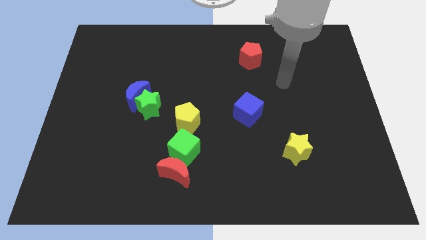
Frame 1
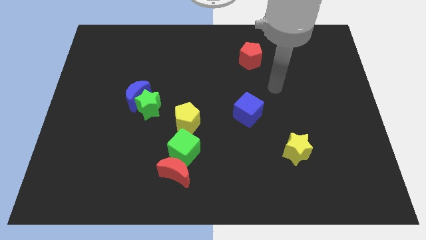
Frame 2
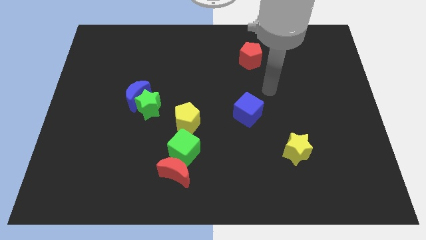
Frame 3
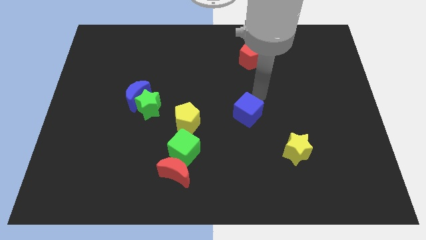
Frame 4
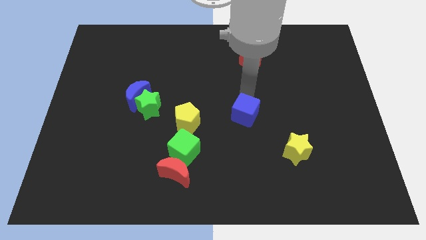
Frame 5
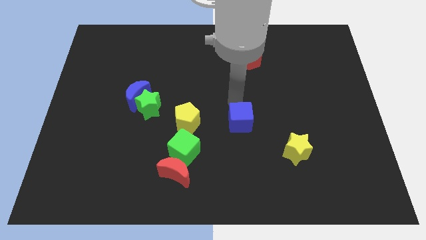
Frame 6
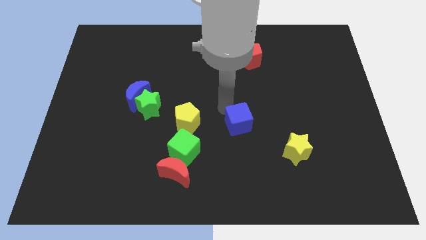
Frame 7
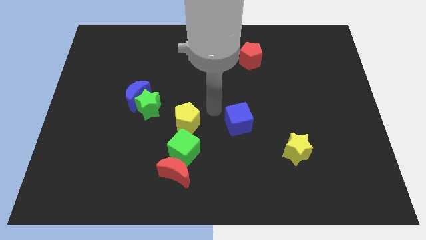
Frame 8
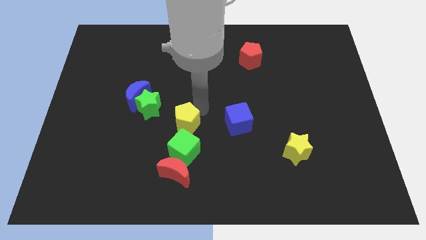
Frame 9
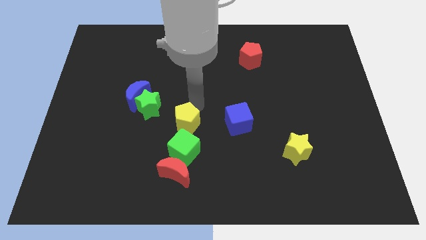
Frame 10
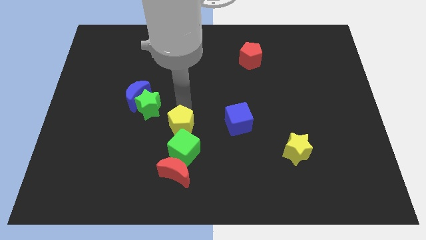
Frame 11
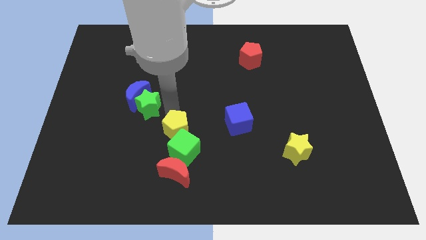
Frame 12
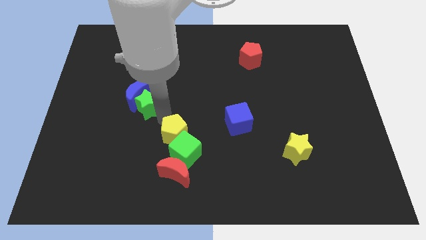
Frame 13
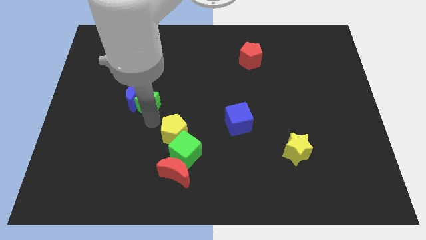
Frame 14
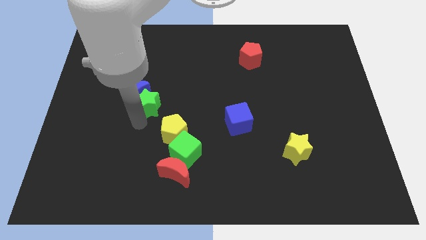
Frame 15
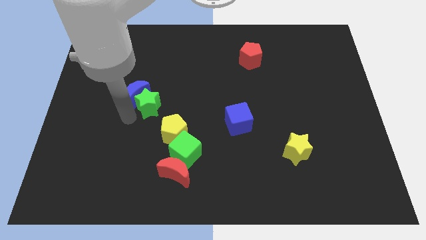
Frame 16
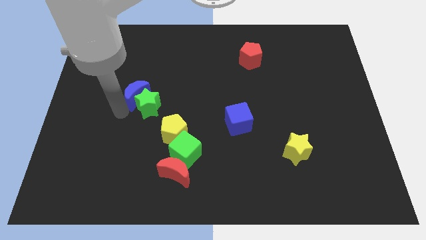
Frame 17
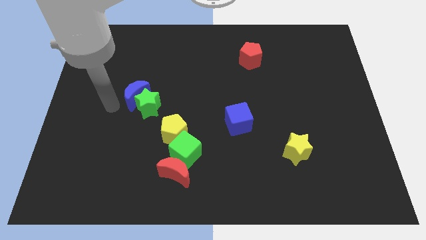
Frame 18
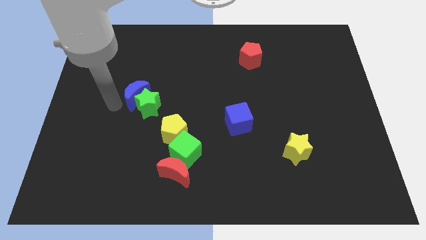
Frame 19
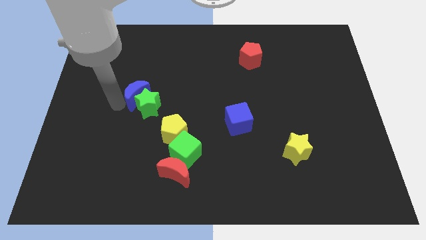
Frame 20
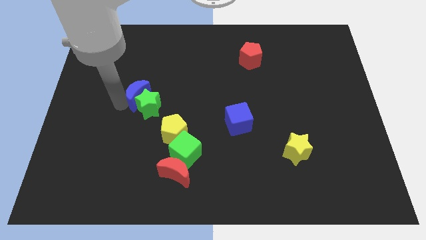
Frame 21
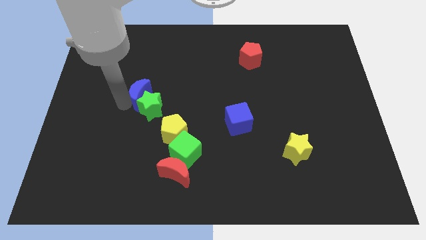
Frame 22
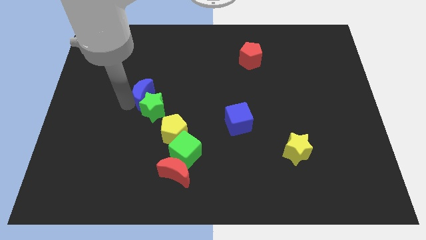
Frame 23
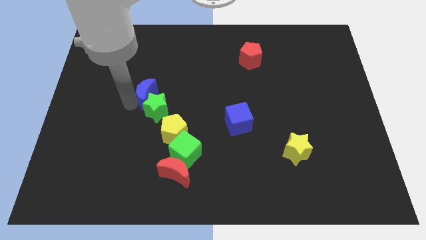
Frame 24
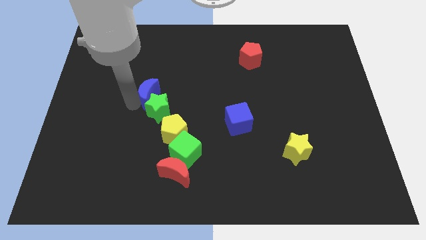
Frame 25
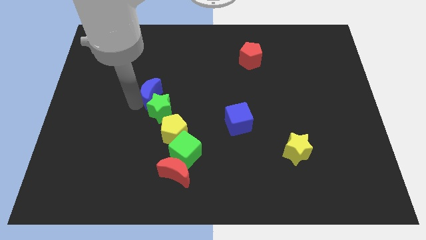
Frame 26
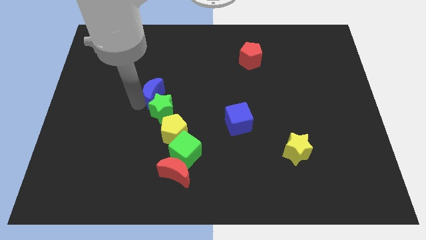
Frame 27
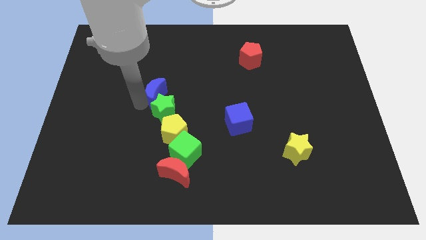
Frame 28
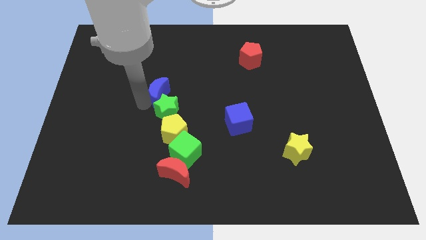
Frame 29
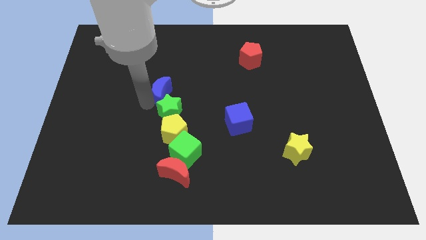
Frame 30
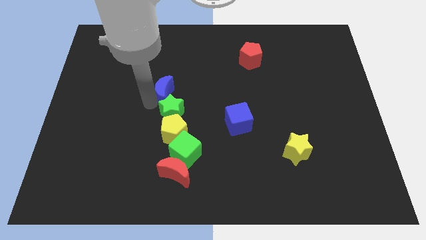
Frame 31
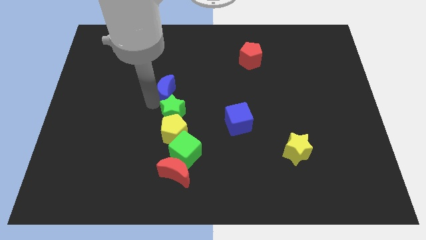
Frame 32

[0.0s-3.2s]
move the blue moon to the right a little

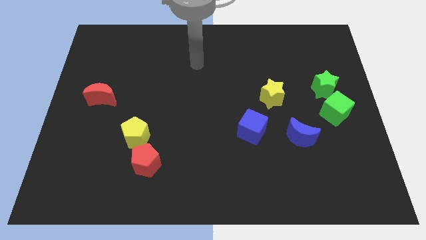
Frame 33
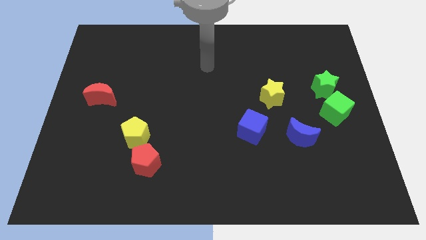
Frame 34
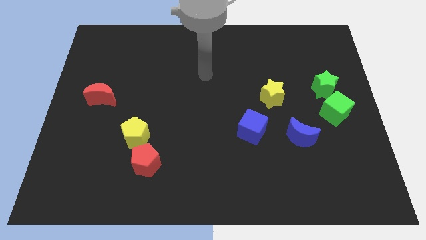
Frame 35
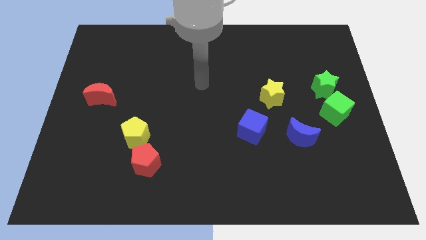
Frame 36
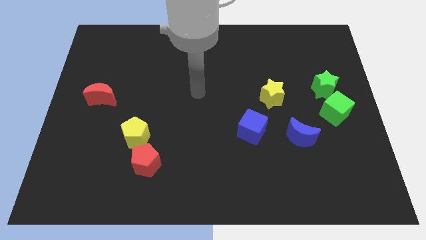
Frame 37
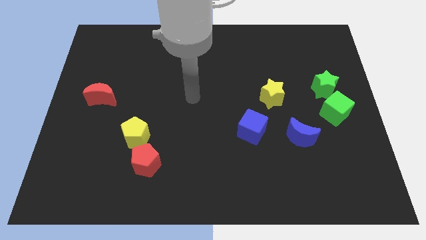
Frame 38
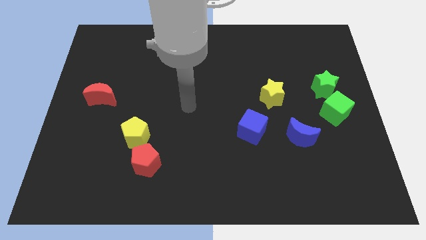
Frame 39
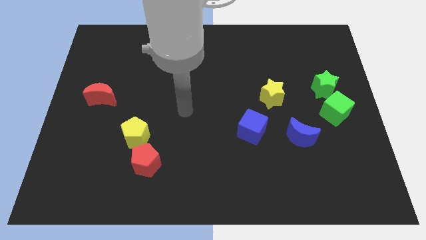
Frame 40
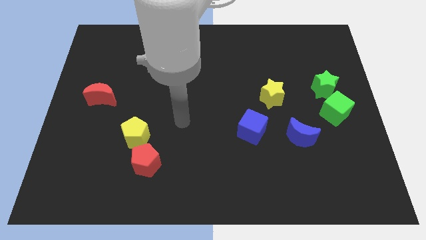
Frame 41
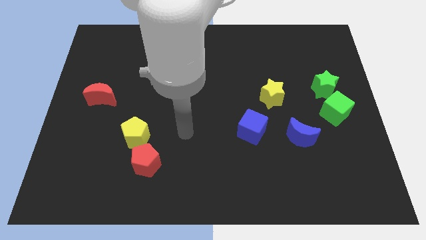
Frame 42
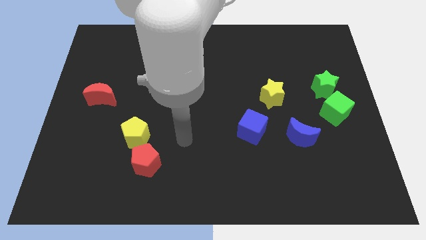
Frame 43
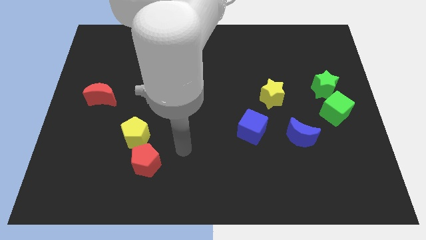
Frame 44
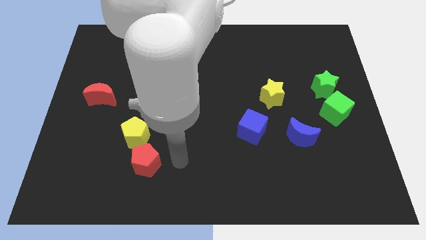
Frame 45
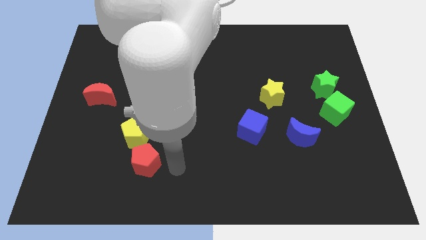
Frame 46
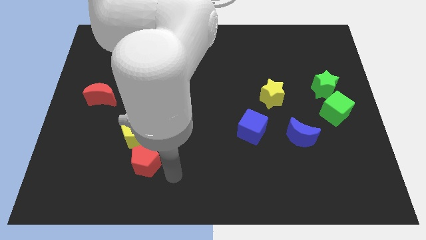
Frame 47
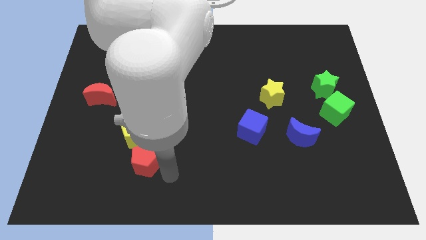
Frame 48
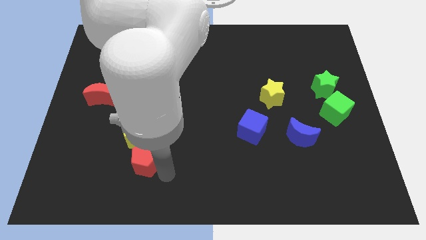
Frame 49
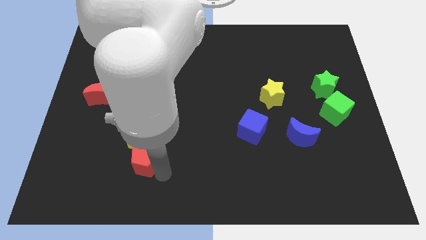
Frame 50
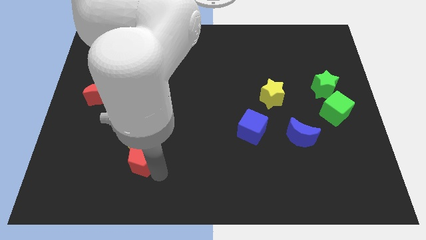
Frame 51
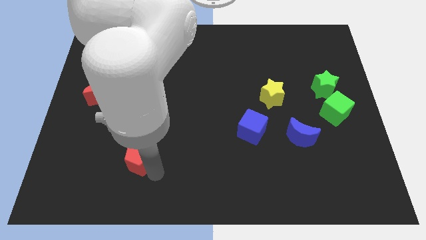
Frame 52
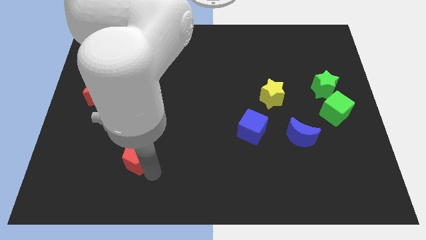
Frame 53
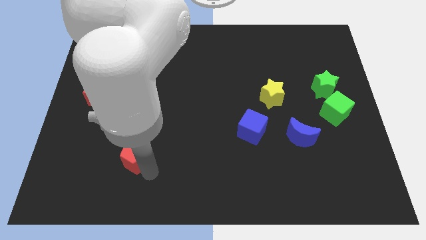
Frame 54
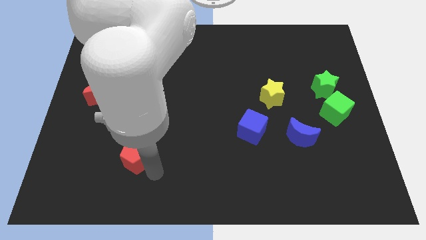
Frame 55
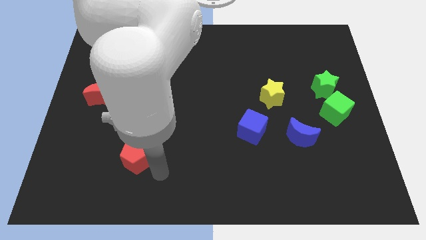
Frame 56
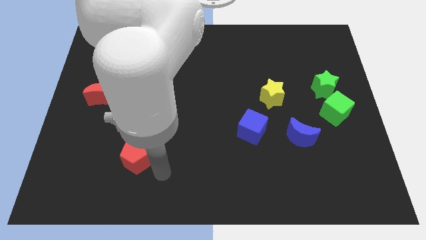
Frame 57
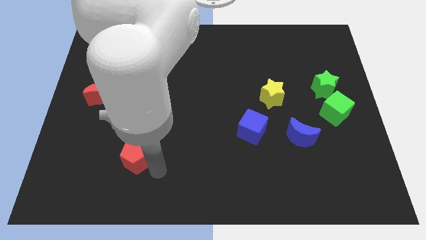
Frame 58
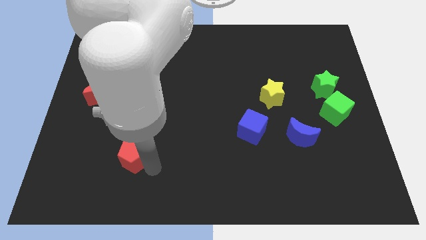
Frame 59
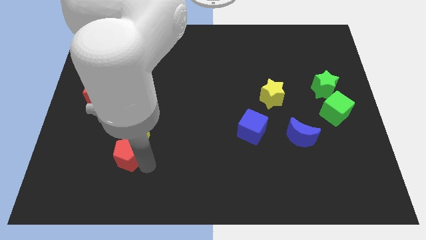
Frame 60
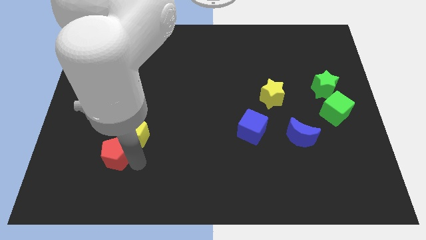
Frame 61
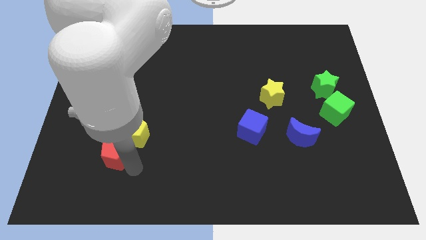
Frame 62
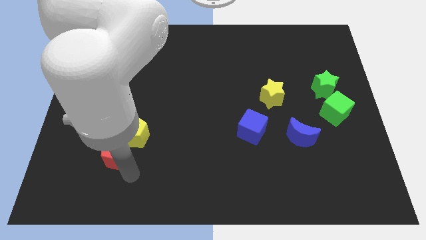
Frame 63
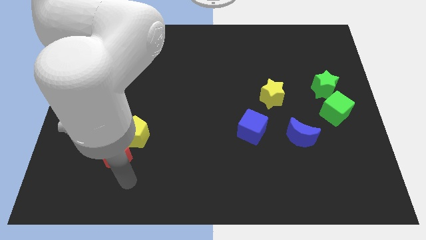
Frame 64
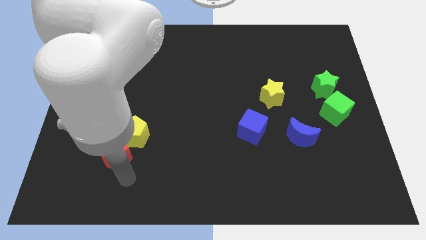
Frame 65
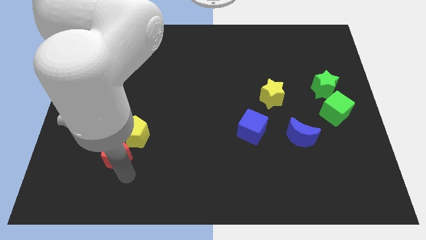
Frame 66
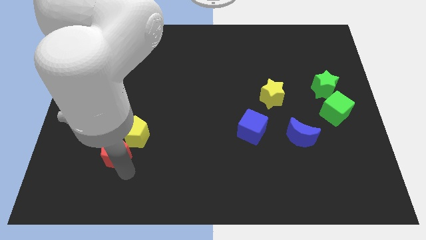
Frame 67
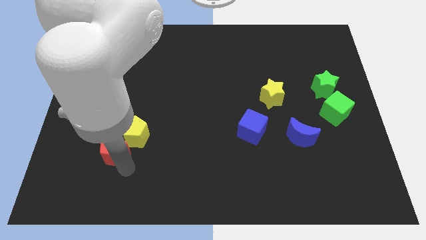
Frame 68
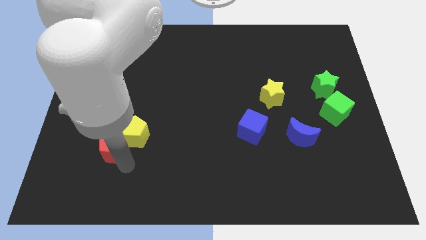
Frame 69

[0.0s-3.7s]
slightly move the red pentagon upwards and then left

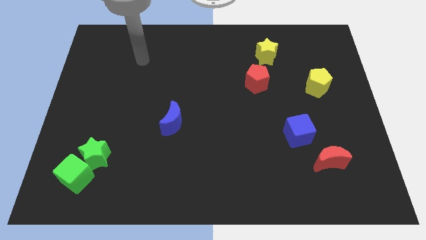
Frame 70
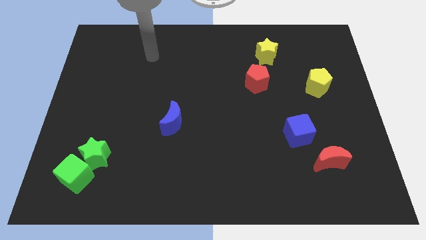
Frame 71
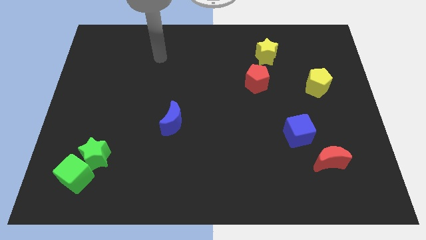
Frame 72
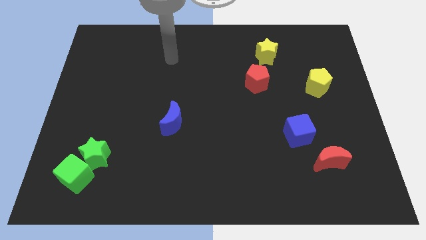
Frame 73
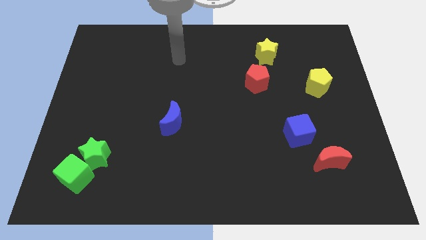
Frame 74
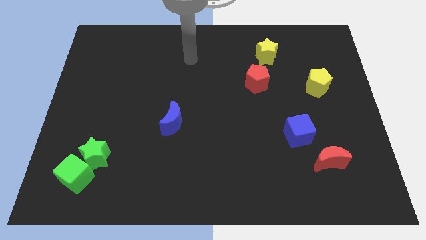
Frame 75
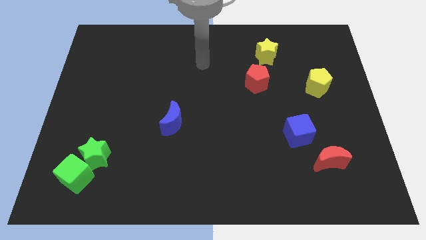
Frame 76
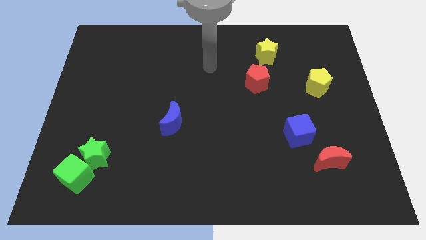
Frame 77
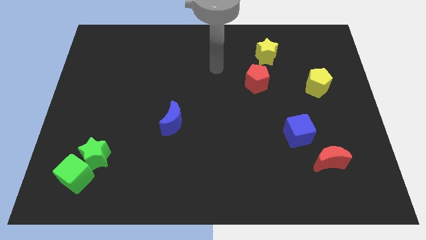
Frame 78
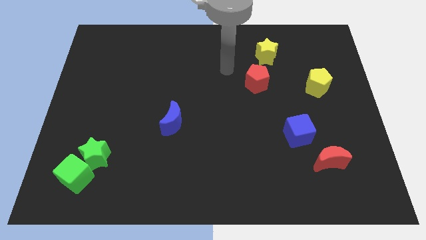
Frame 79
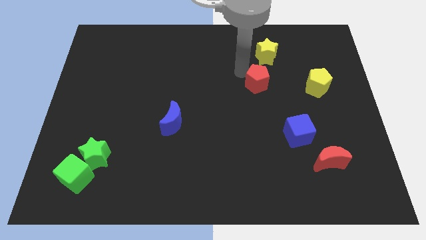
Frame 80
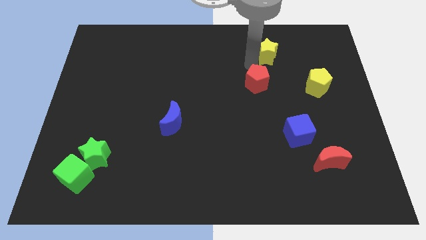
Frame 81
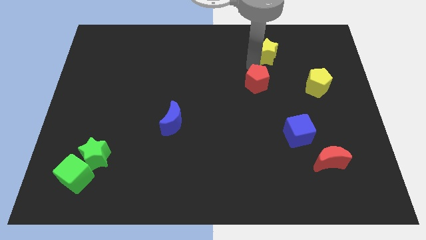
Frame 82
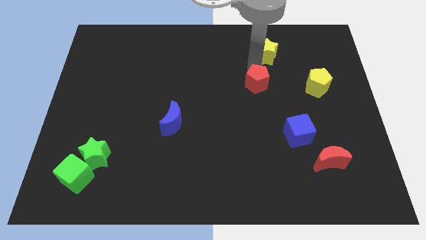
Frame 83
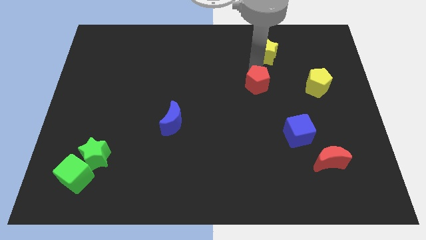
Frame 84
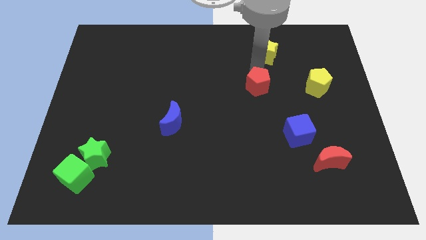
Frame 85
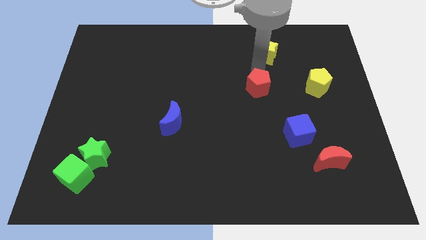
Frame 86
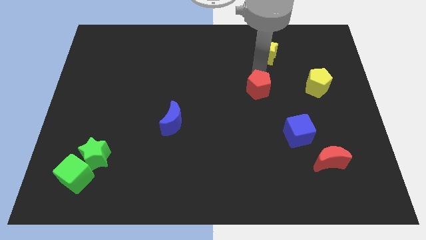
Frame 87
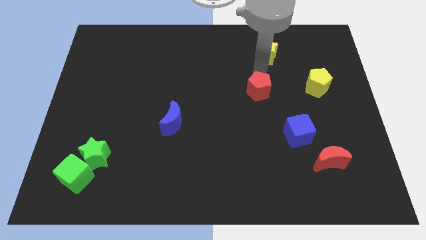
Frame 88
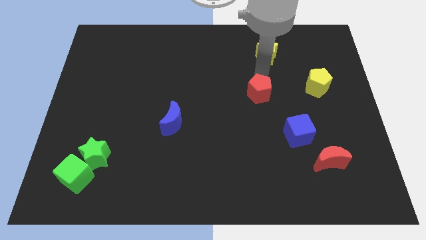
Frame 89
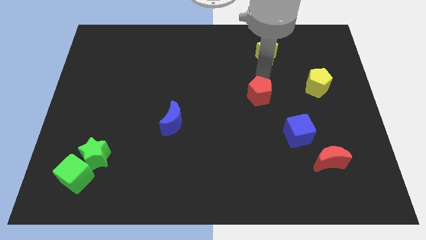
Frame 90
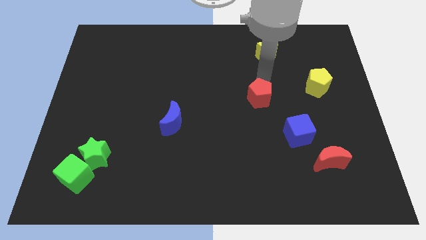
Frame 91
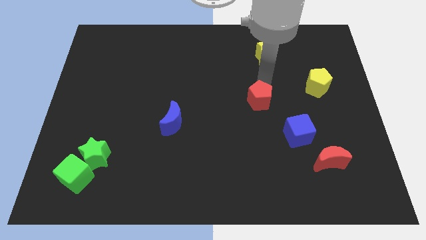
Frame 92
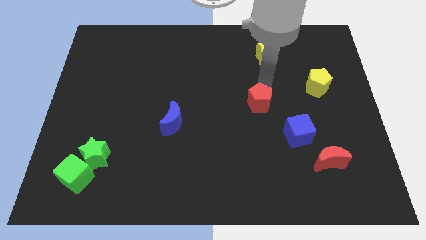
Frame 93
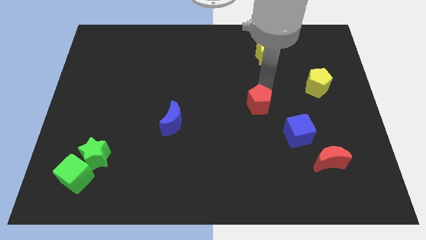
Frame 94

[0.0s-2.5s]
slide the red pentagon downwards a bit
